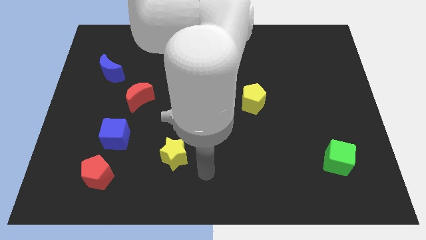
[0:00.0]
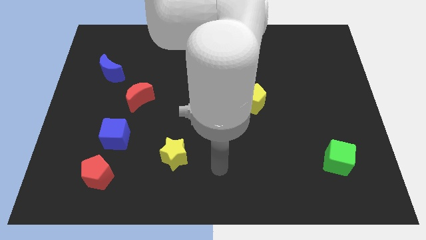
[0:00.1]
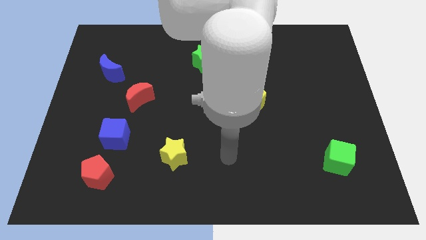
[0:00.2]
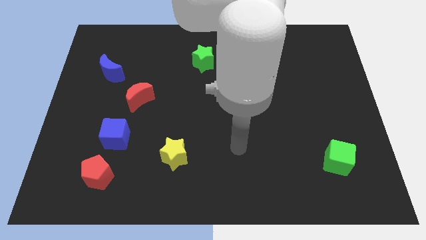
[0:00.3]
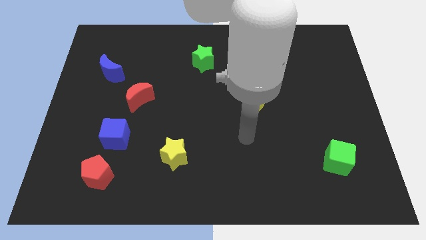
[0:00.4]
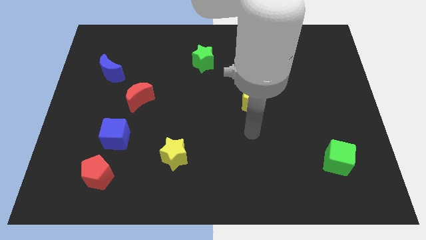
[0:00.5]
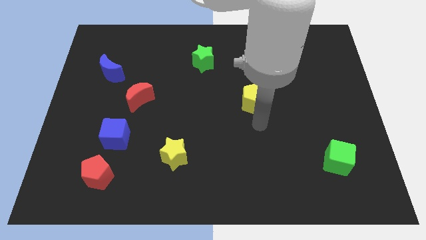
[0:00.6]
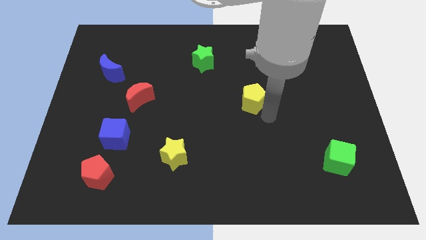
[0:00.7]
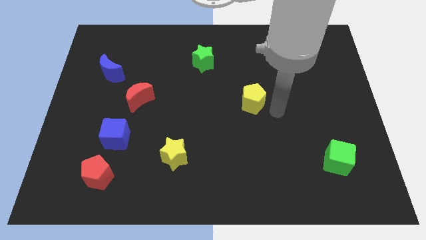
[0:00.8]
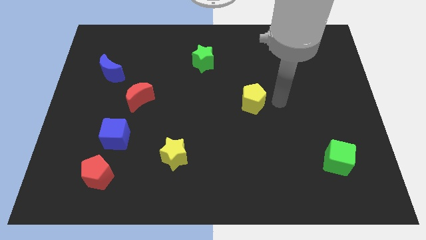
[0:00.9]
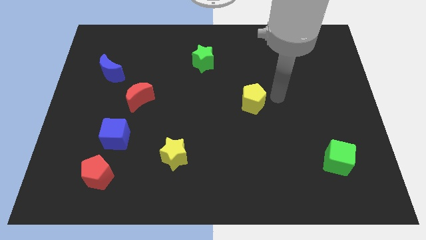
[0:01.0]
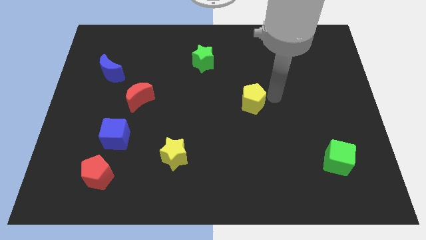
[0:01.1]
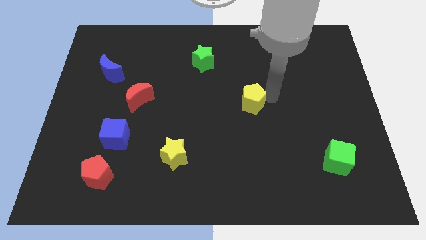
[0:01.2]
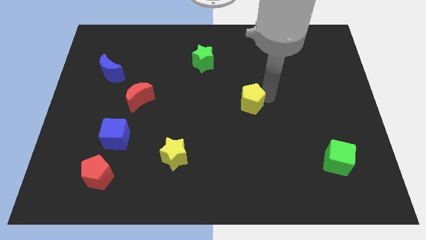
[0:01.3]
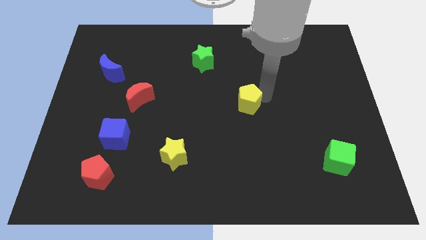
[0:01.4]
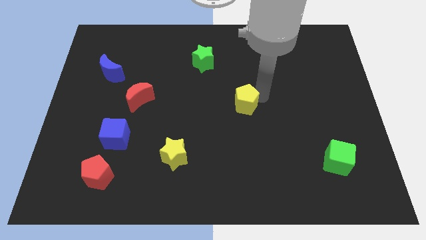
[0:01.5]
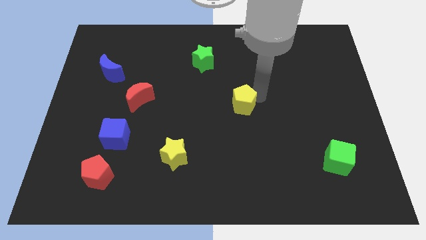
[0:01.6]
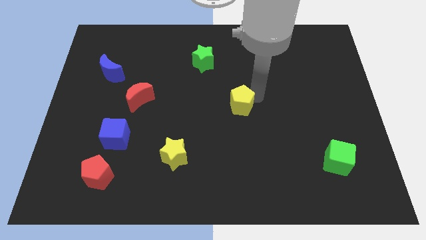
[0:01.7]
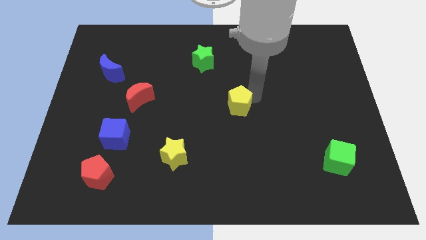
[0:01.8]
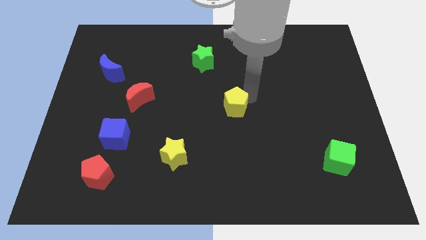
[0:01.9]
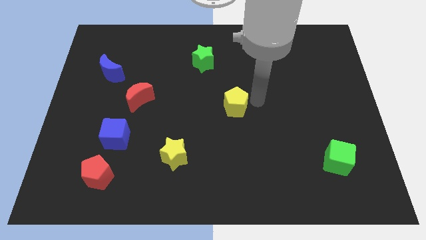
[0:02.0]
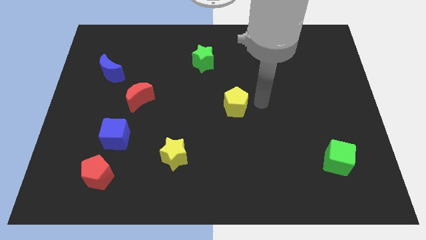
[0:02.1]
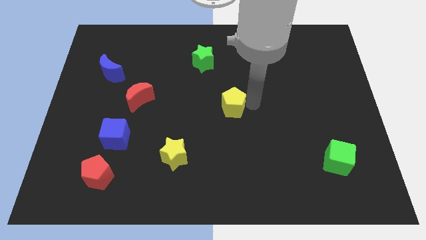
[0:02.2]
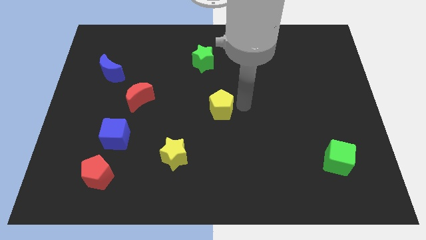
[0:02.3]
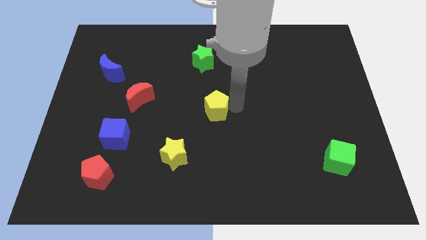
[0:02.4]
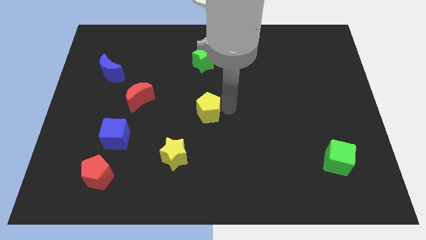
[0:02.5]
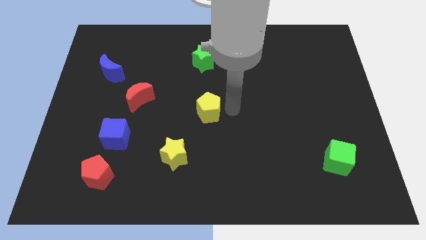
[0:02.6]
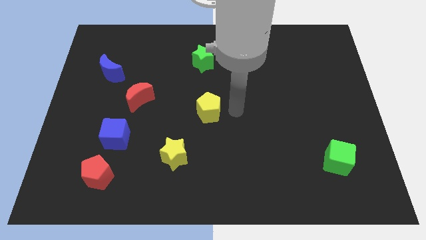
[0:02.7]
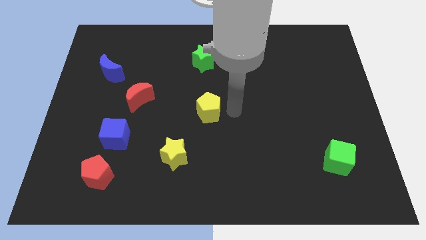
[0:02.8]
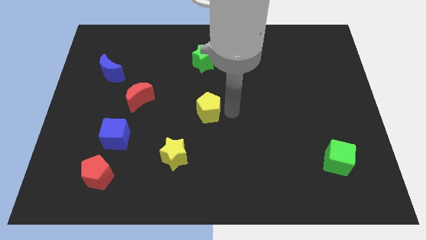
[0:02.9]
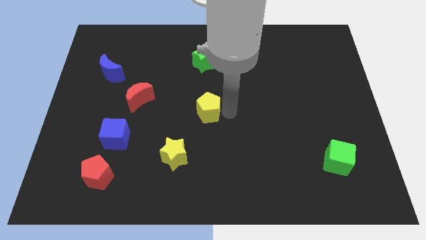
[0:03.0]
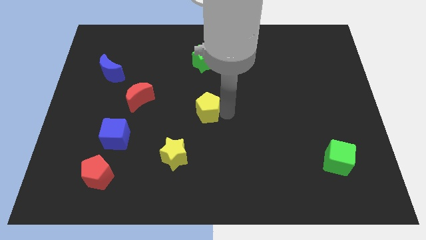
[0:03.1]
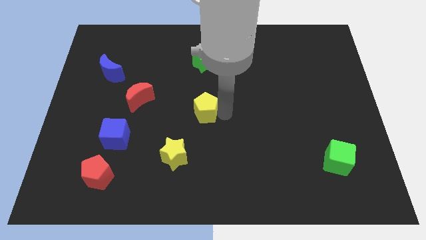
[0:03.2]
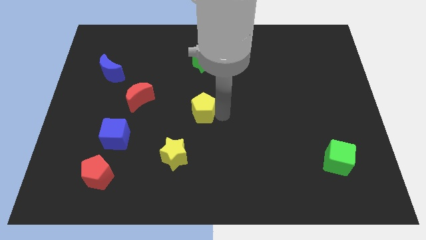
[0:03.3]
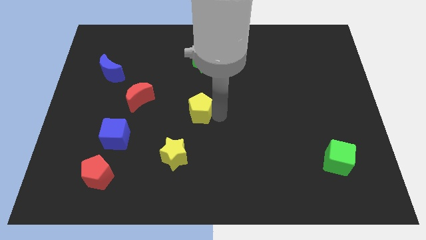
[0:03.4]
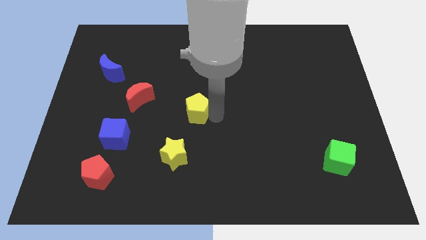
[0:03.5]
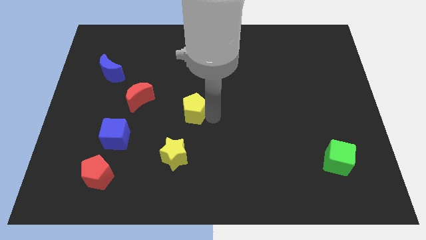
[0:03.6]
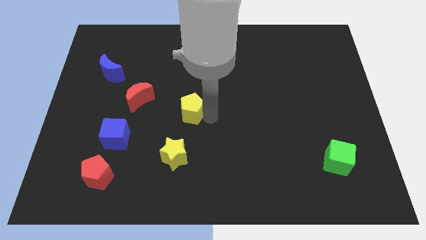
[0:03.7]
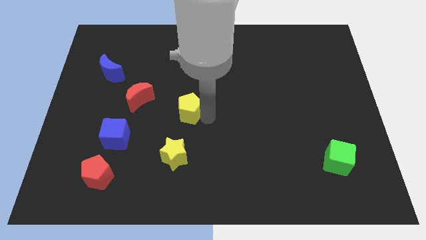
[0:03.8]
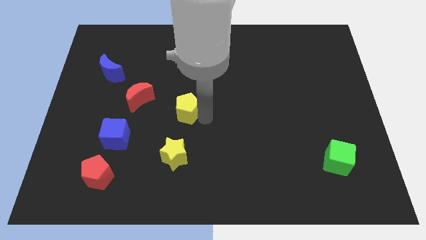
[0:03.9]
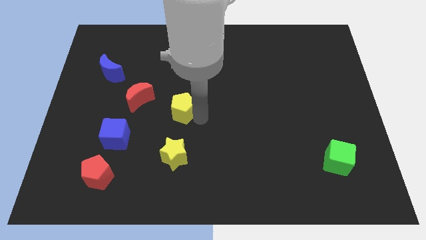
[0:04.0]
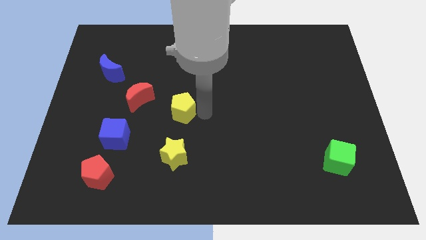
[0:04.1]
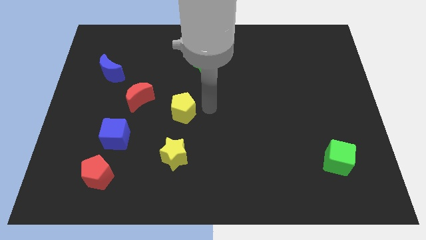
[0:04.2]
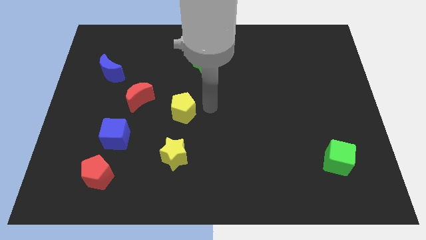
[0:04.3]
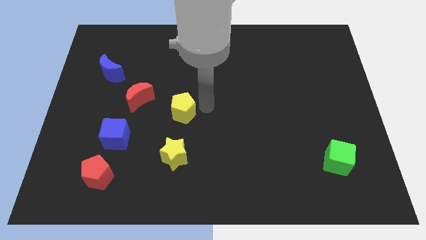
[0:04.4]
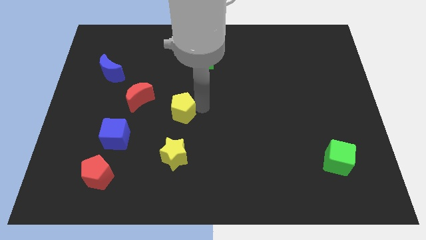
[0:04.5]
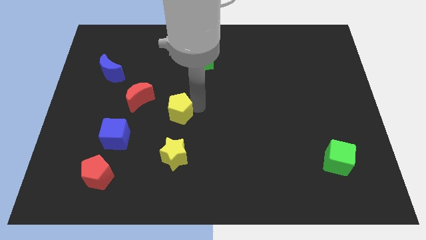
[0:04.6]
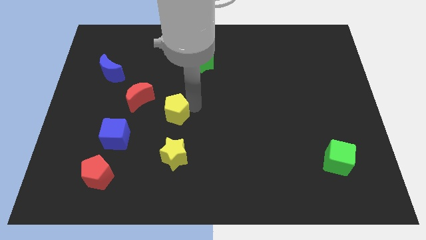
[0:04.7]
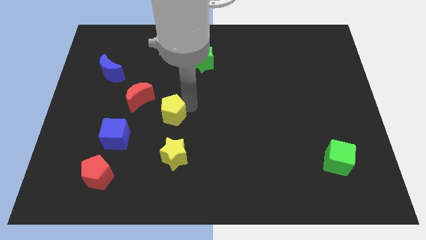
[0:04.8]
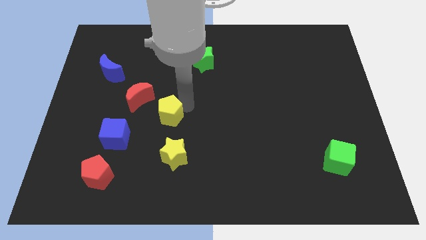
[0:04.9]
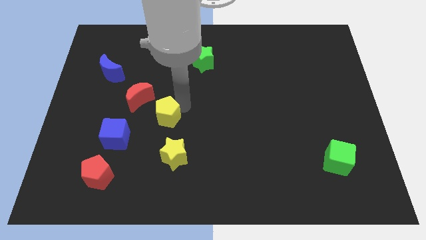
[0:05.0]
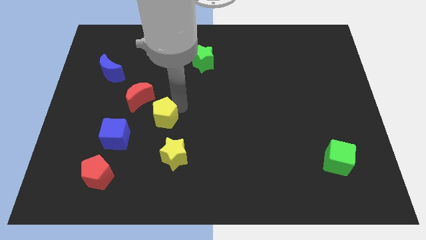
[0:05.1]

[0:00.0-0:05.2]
move the yellow pentagon diagonally up and to the right of the blue cube

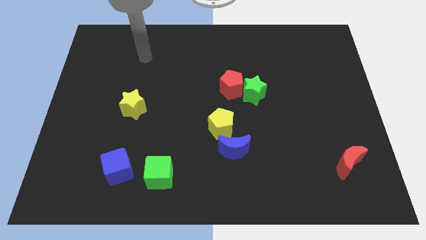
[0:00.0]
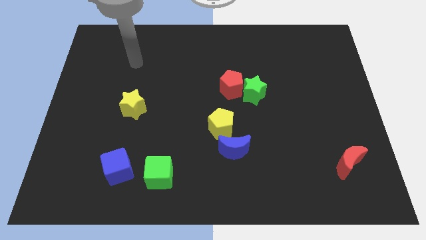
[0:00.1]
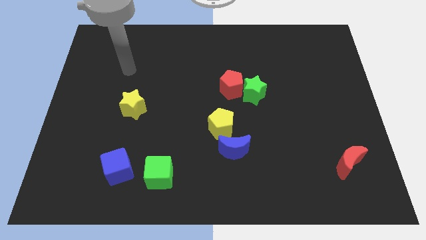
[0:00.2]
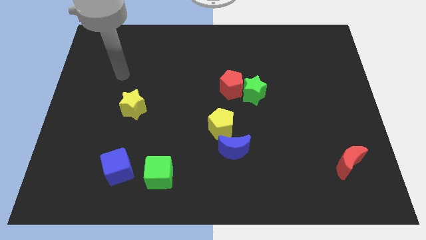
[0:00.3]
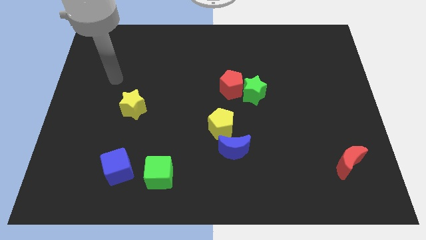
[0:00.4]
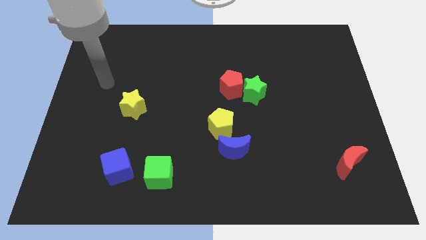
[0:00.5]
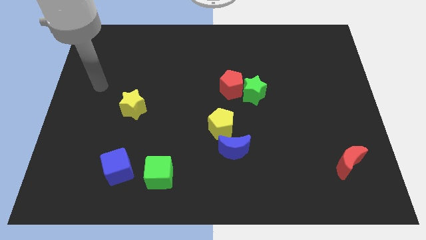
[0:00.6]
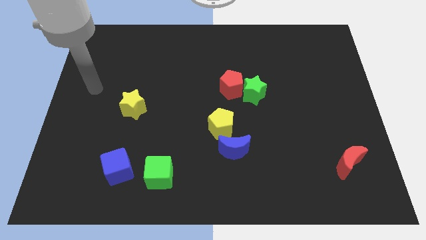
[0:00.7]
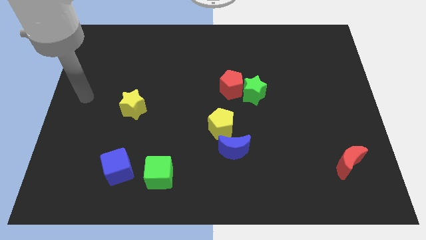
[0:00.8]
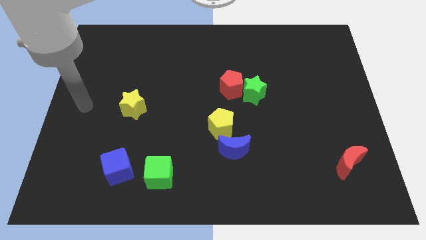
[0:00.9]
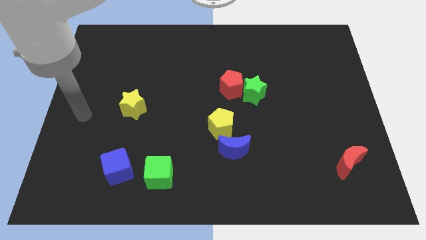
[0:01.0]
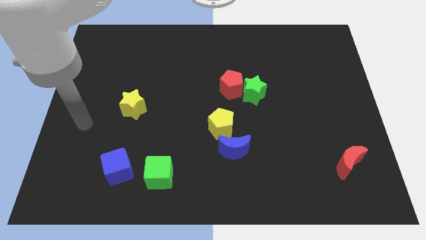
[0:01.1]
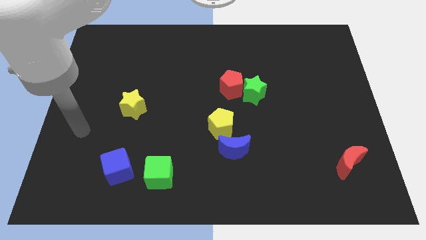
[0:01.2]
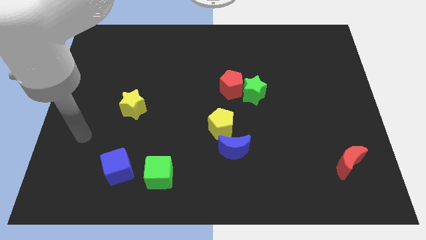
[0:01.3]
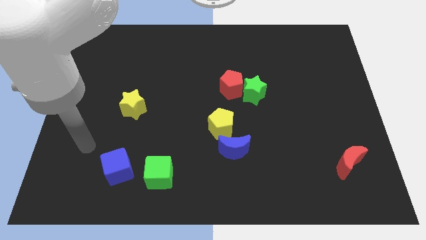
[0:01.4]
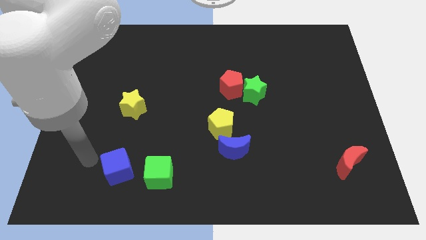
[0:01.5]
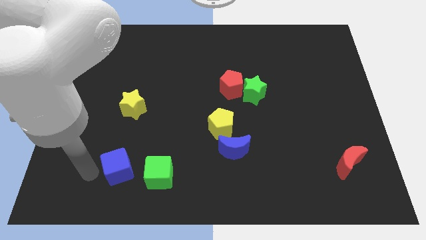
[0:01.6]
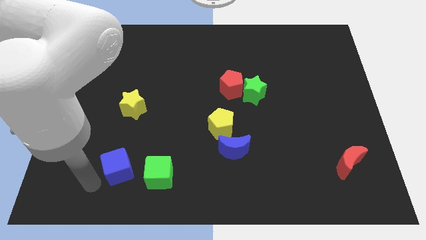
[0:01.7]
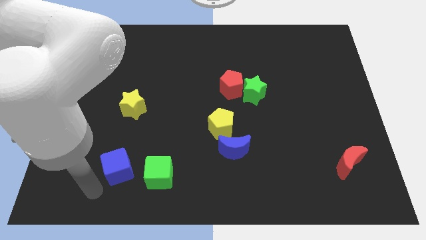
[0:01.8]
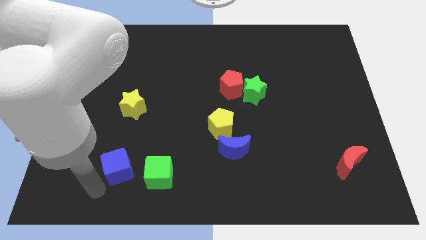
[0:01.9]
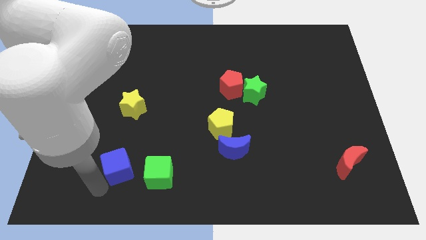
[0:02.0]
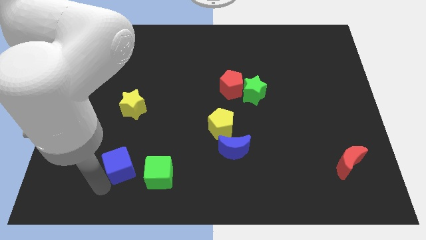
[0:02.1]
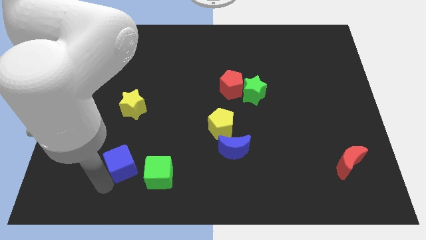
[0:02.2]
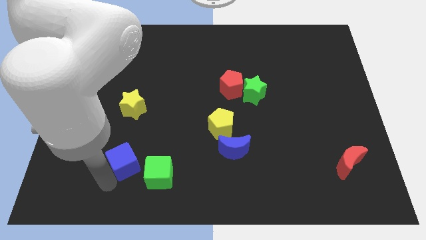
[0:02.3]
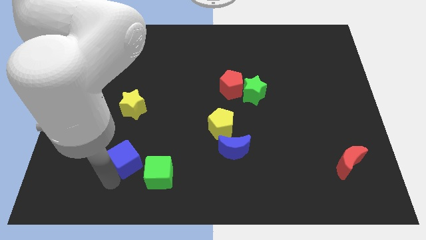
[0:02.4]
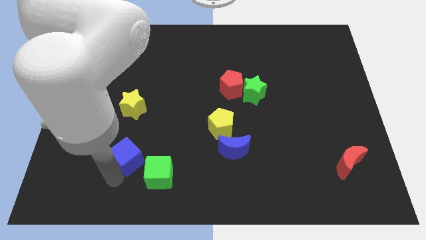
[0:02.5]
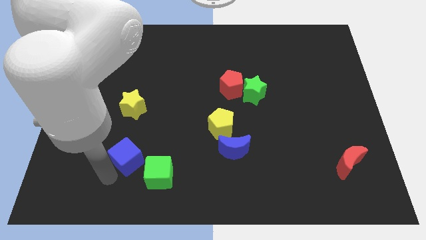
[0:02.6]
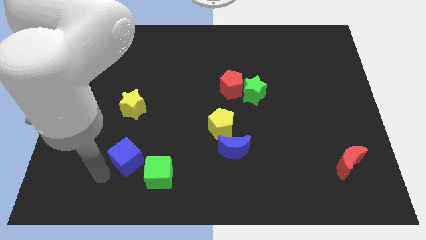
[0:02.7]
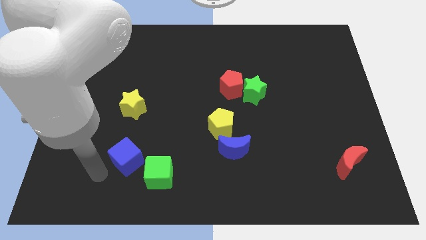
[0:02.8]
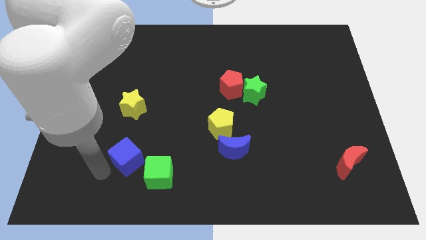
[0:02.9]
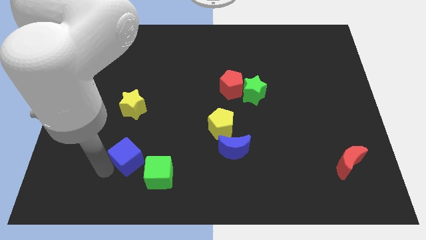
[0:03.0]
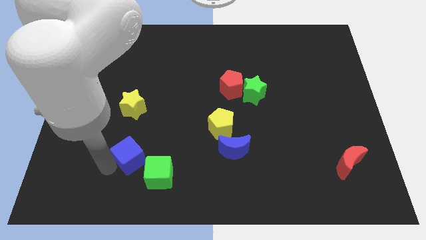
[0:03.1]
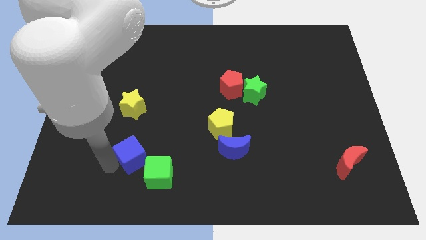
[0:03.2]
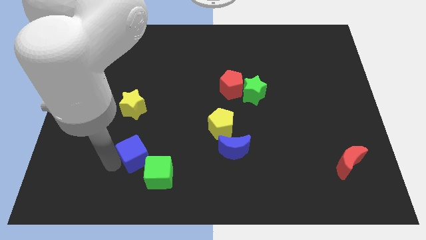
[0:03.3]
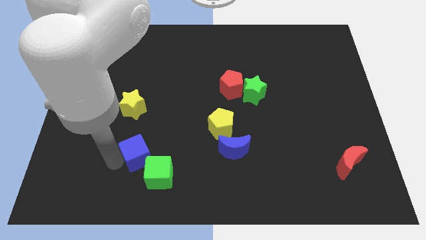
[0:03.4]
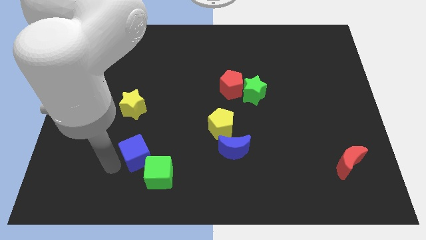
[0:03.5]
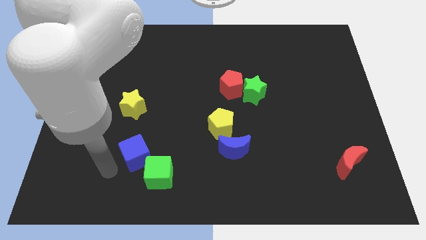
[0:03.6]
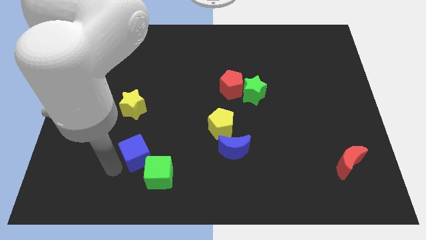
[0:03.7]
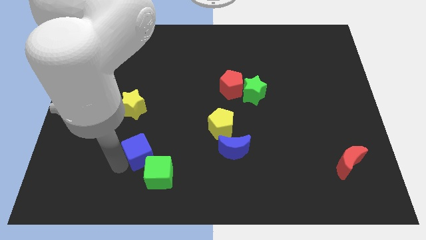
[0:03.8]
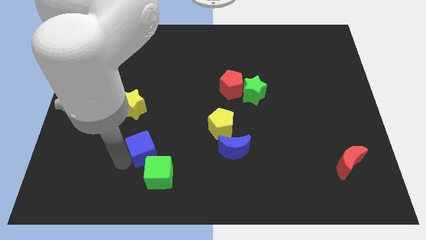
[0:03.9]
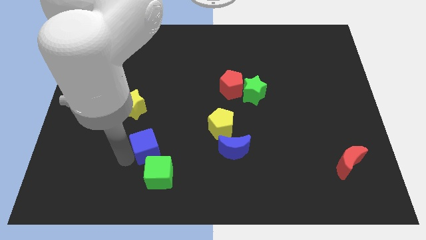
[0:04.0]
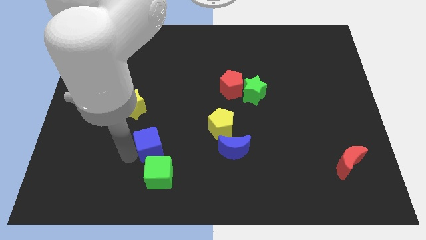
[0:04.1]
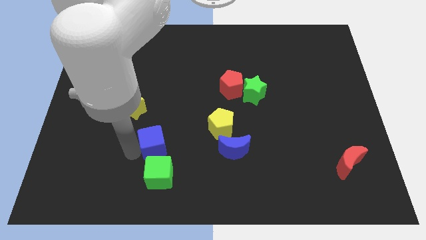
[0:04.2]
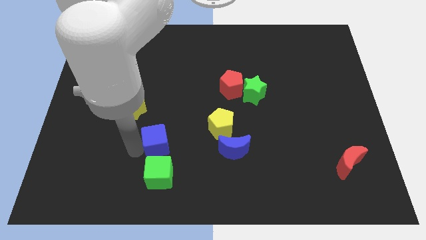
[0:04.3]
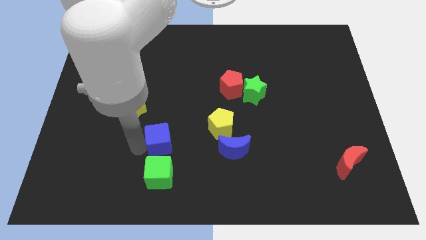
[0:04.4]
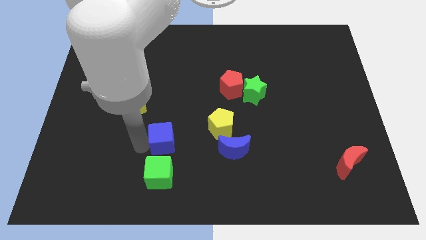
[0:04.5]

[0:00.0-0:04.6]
move the blue cube just left of the blue moon
